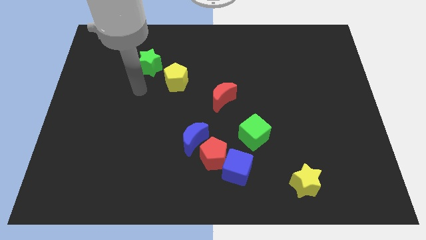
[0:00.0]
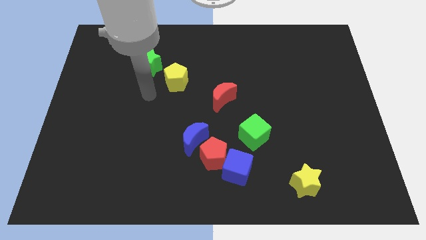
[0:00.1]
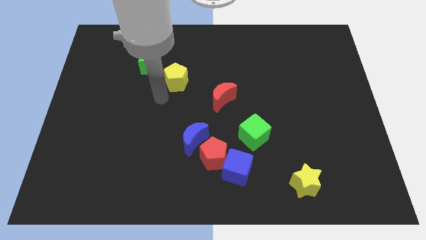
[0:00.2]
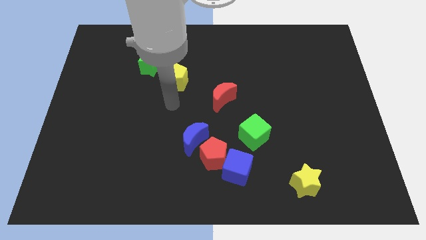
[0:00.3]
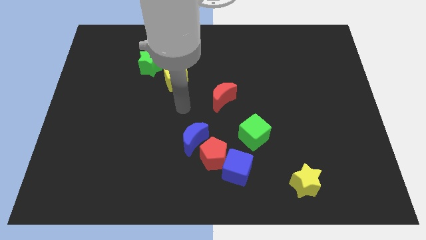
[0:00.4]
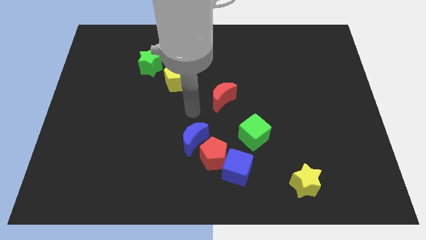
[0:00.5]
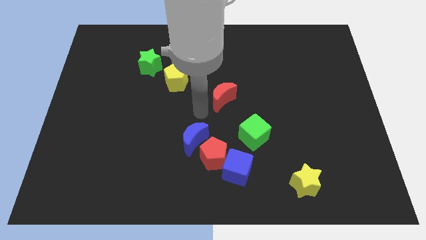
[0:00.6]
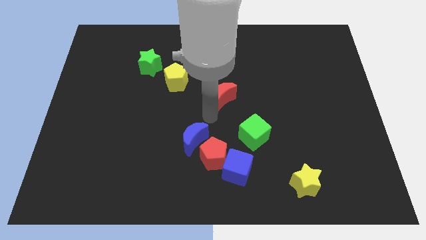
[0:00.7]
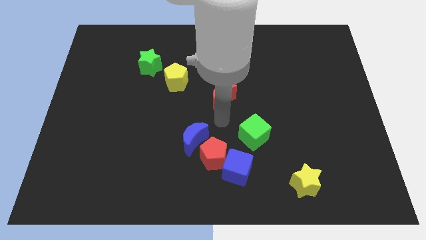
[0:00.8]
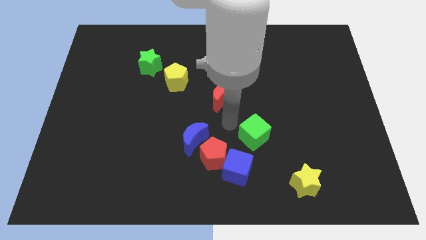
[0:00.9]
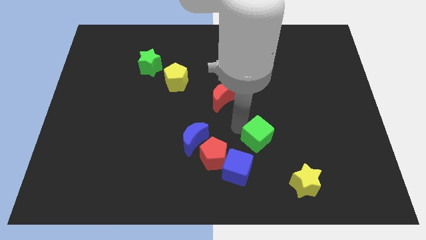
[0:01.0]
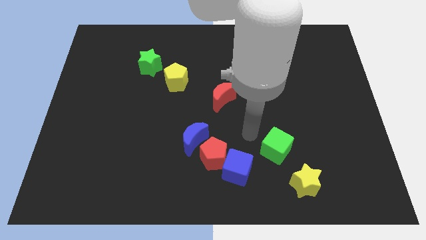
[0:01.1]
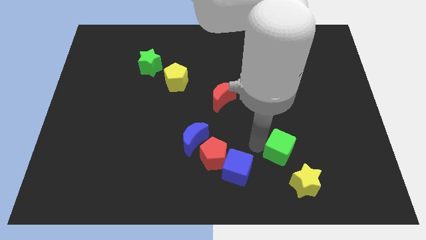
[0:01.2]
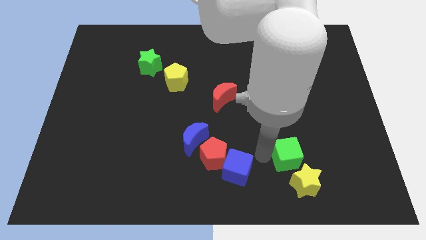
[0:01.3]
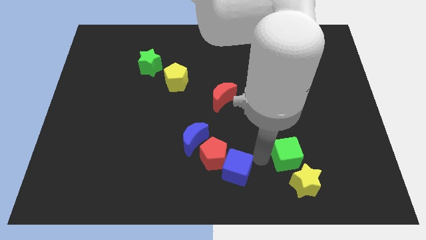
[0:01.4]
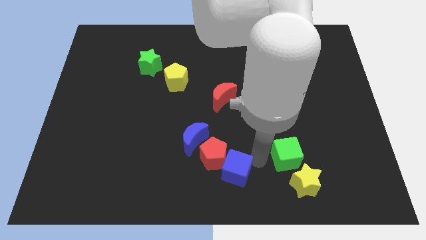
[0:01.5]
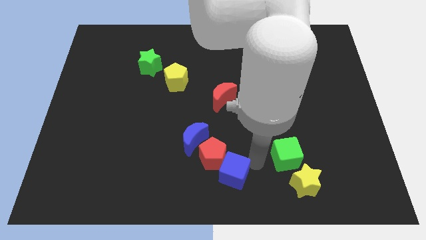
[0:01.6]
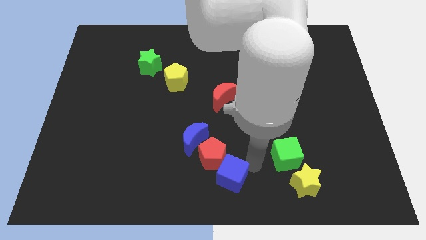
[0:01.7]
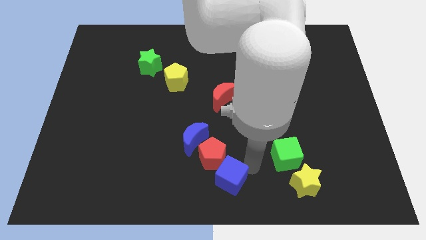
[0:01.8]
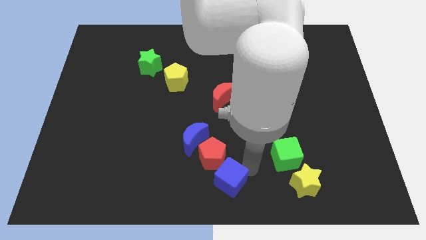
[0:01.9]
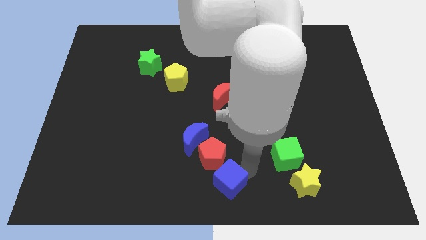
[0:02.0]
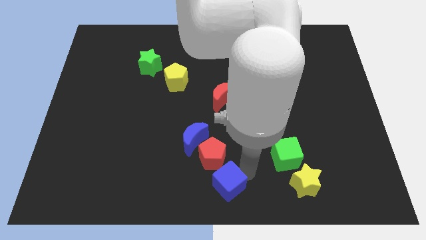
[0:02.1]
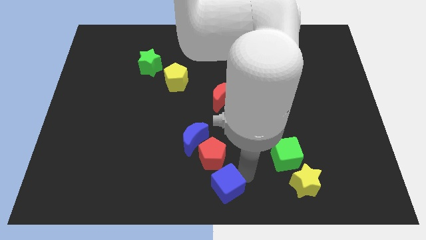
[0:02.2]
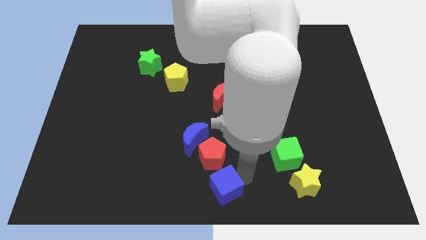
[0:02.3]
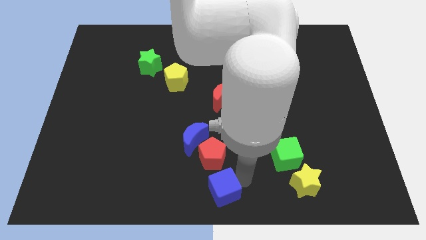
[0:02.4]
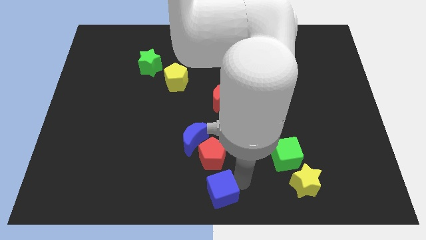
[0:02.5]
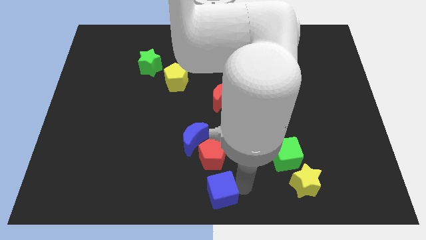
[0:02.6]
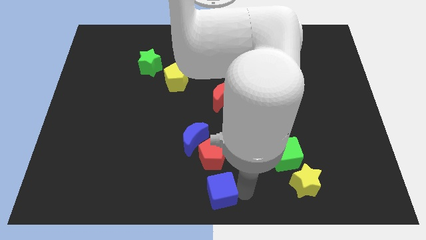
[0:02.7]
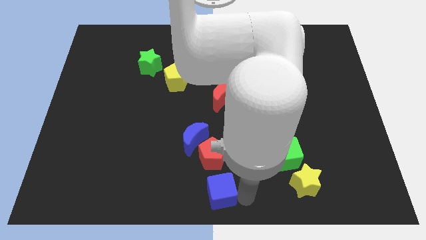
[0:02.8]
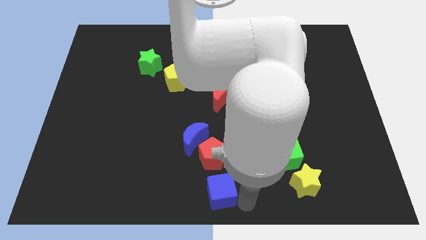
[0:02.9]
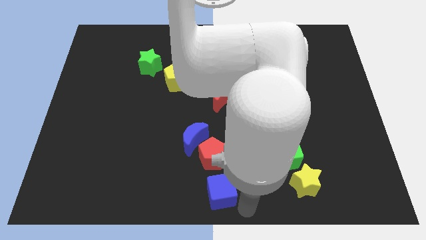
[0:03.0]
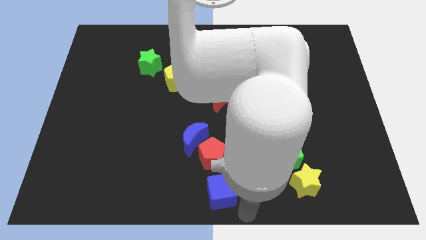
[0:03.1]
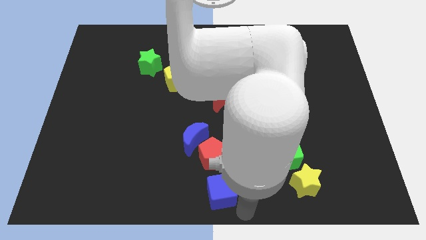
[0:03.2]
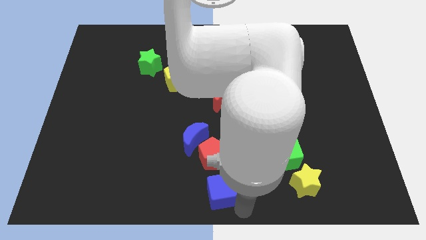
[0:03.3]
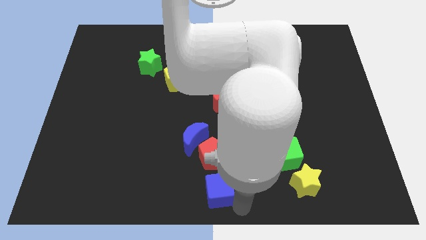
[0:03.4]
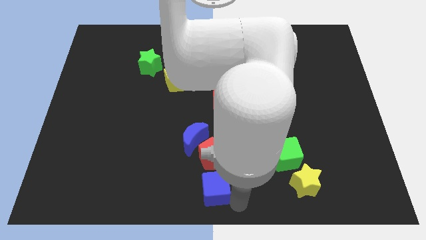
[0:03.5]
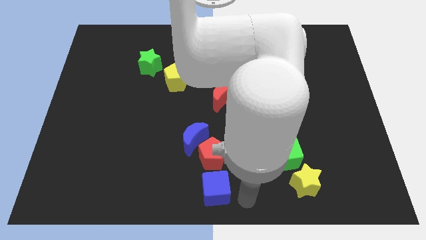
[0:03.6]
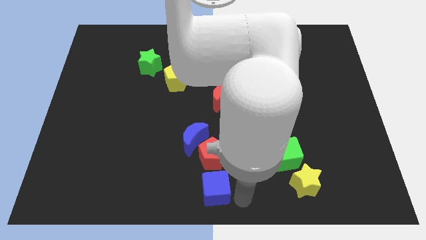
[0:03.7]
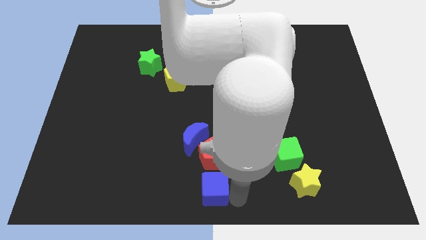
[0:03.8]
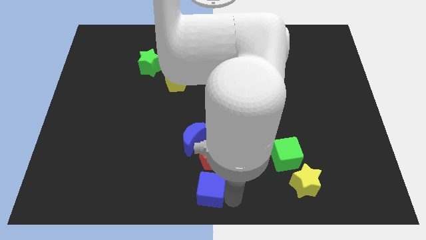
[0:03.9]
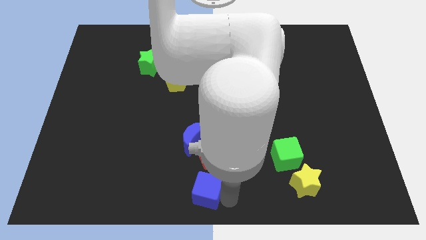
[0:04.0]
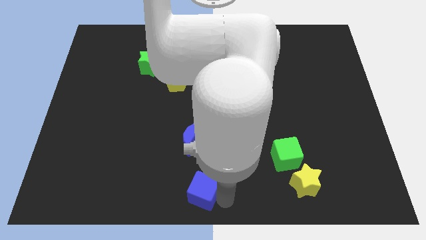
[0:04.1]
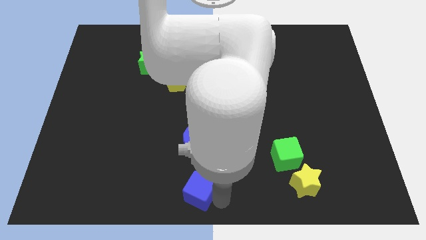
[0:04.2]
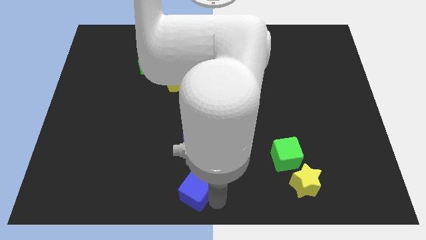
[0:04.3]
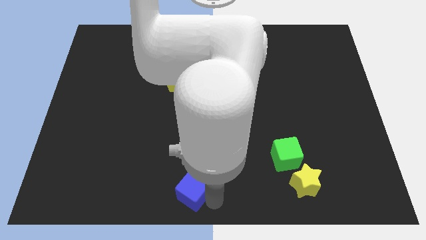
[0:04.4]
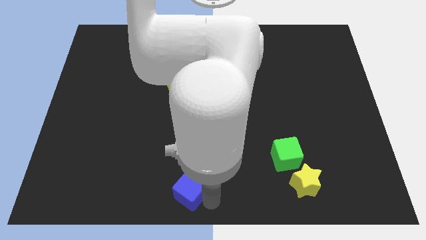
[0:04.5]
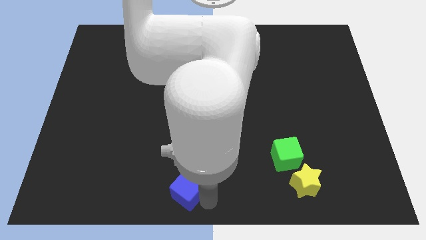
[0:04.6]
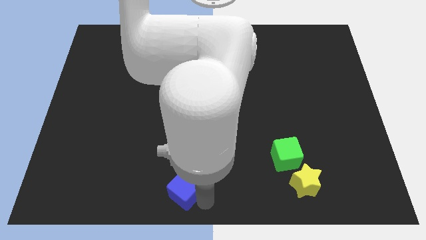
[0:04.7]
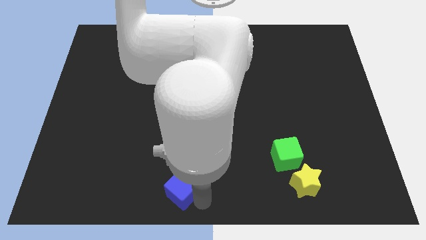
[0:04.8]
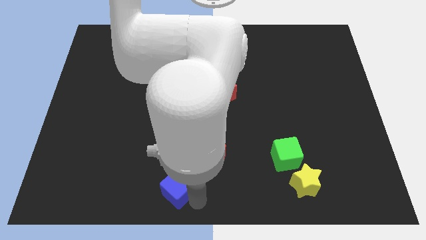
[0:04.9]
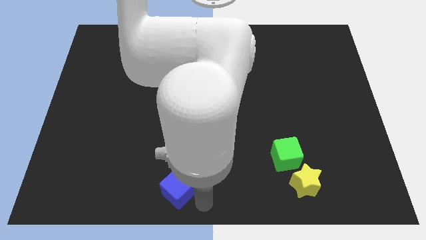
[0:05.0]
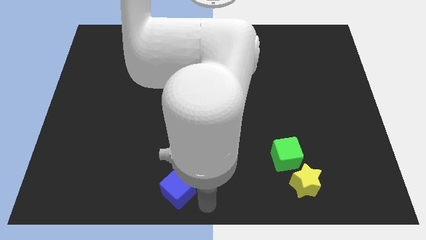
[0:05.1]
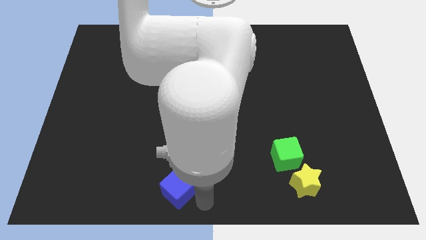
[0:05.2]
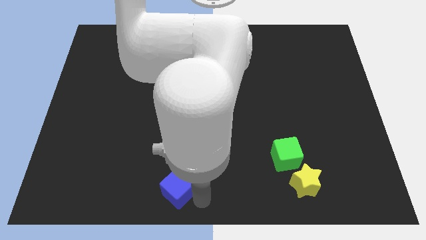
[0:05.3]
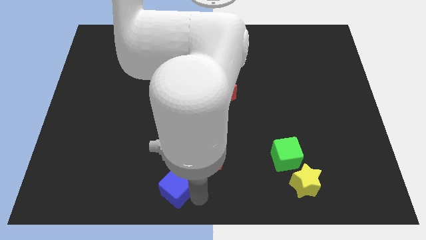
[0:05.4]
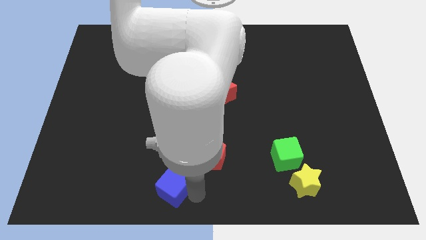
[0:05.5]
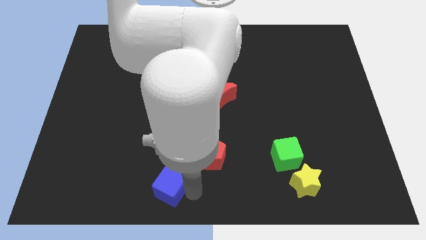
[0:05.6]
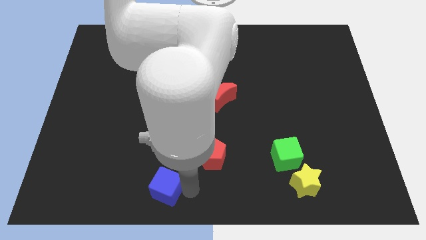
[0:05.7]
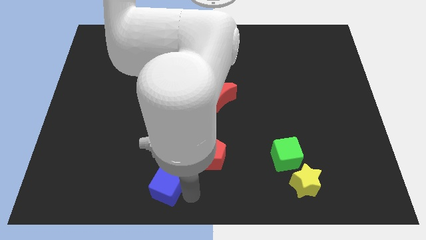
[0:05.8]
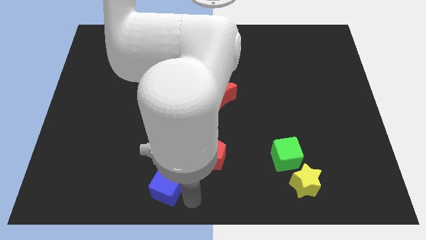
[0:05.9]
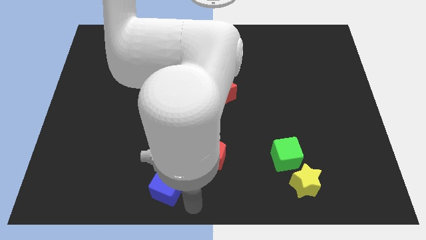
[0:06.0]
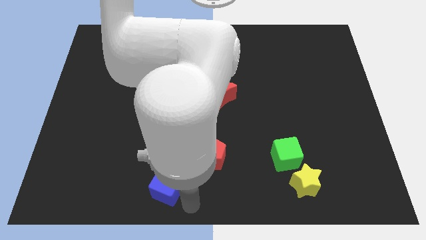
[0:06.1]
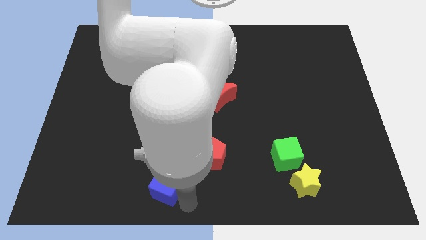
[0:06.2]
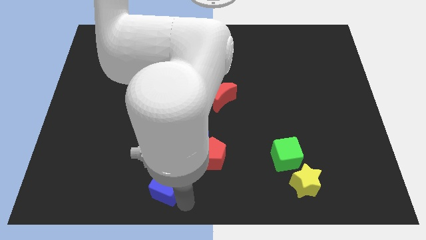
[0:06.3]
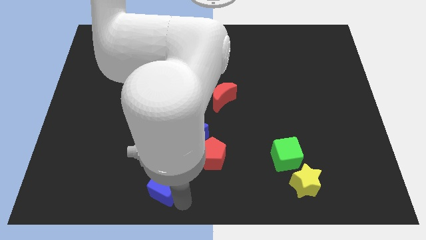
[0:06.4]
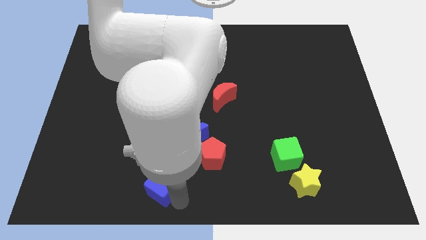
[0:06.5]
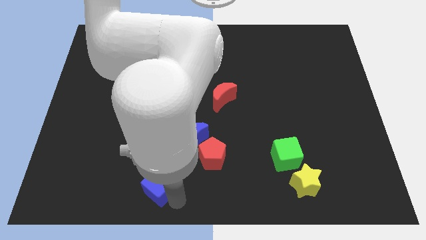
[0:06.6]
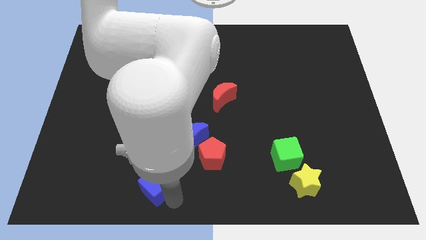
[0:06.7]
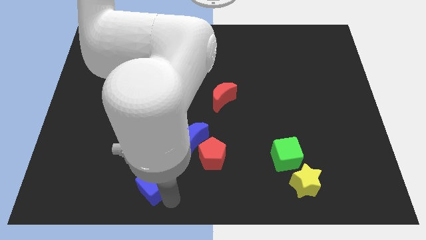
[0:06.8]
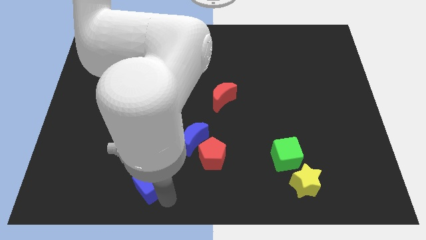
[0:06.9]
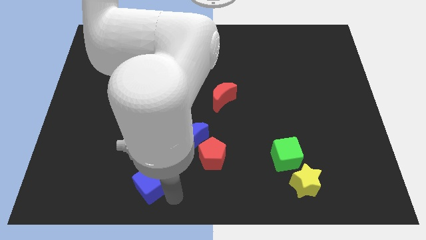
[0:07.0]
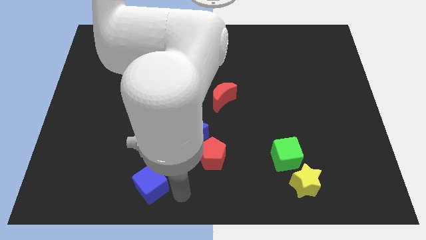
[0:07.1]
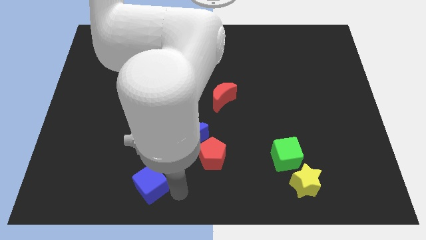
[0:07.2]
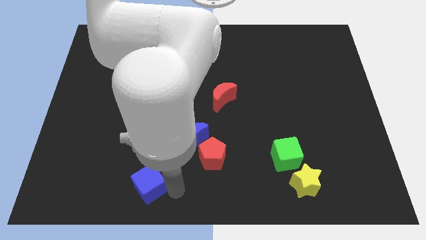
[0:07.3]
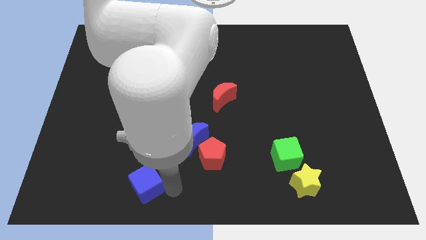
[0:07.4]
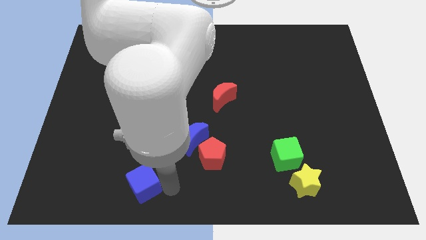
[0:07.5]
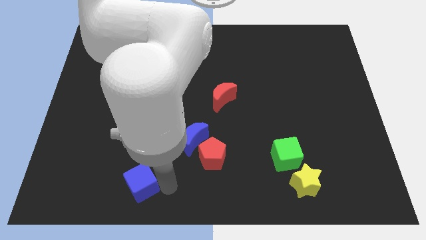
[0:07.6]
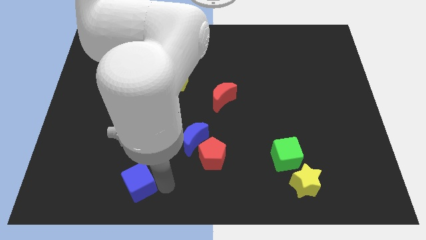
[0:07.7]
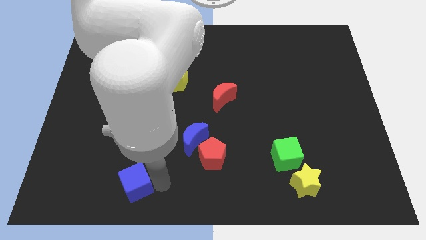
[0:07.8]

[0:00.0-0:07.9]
push the blue cube left
